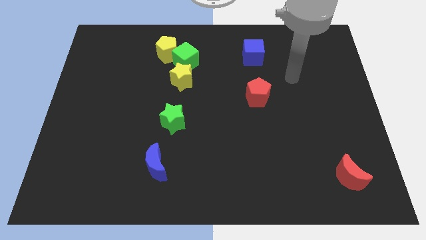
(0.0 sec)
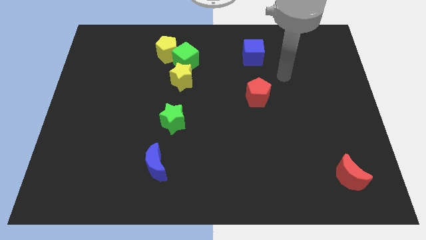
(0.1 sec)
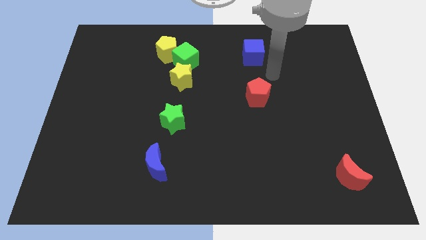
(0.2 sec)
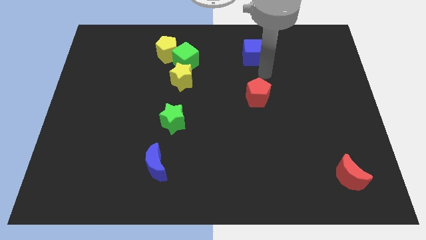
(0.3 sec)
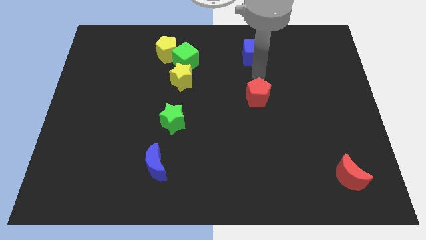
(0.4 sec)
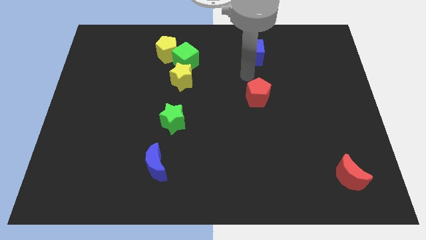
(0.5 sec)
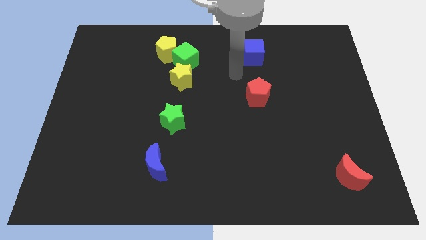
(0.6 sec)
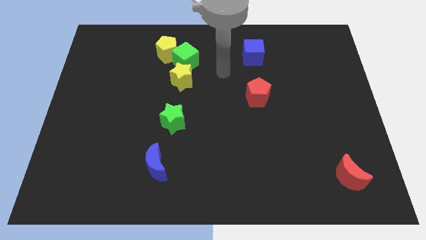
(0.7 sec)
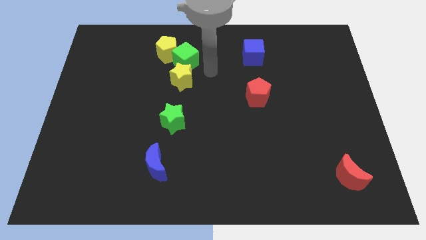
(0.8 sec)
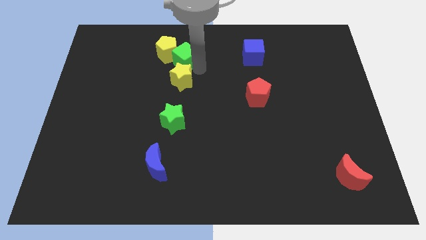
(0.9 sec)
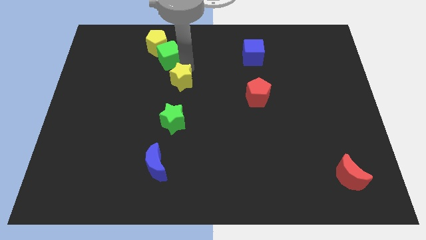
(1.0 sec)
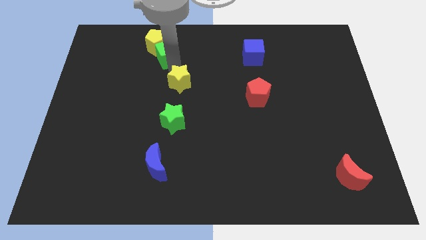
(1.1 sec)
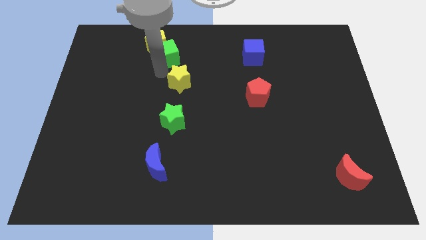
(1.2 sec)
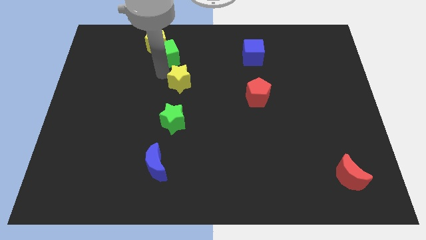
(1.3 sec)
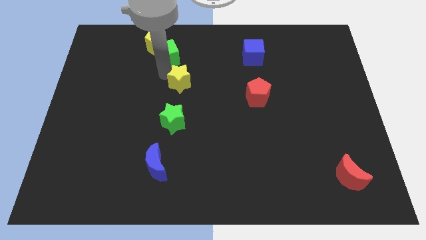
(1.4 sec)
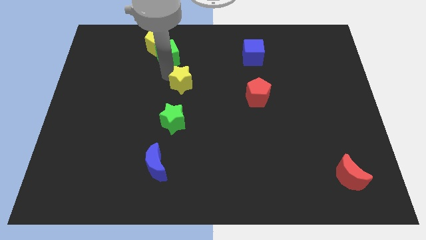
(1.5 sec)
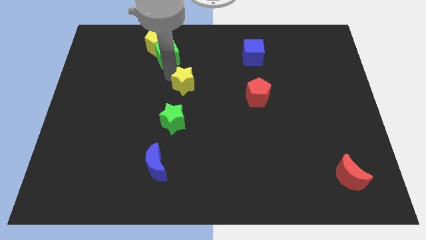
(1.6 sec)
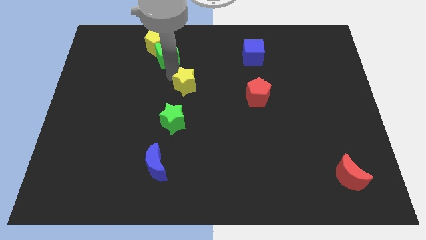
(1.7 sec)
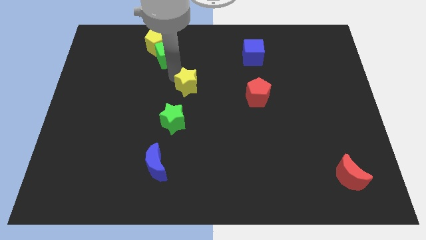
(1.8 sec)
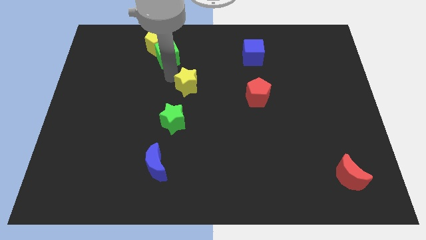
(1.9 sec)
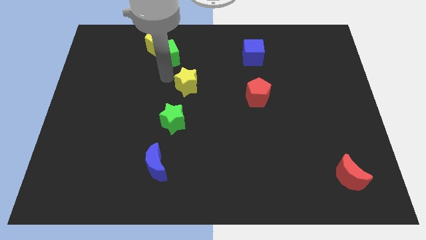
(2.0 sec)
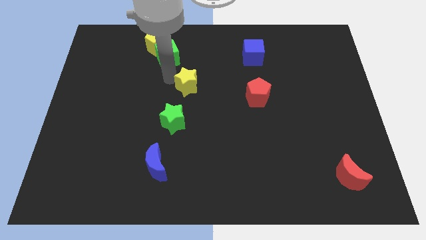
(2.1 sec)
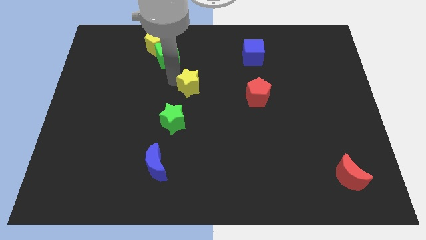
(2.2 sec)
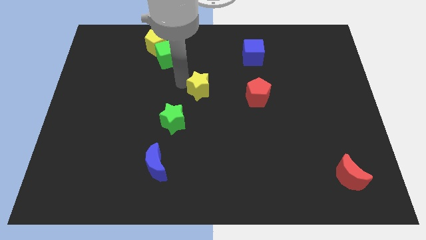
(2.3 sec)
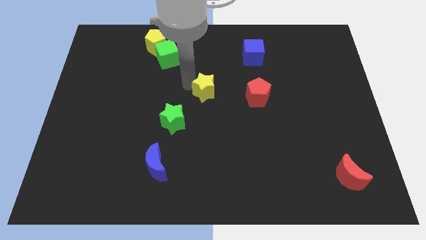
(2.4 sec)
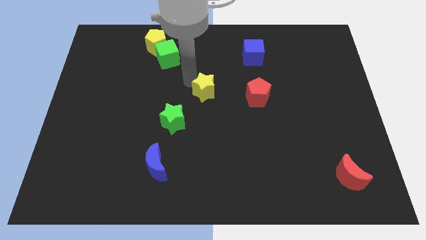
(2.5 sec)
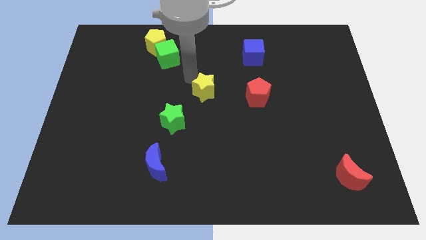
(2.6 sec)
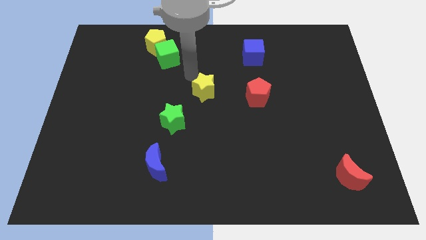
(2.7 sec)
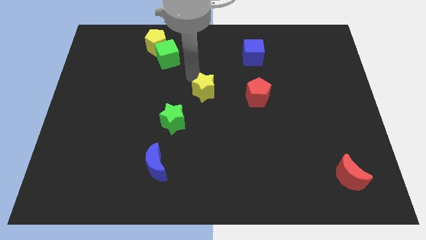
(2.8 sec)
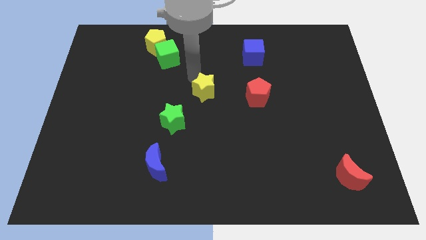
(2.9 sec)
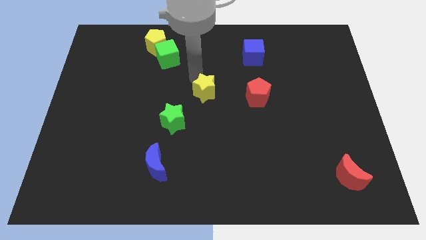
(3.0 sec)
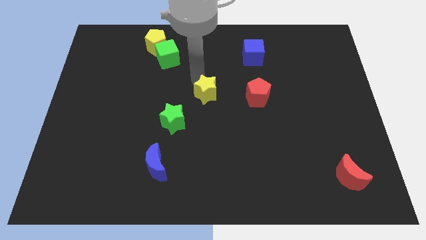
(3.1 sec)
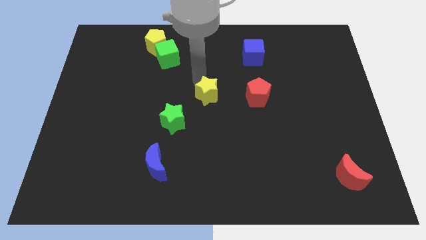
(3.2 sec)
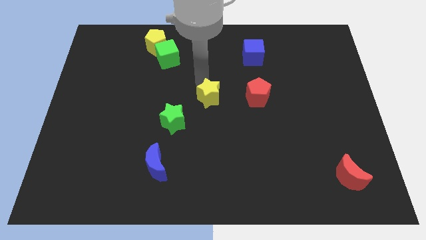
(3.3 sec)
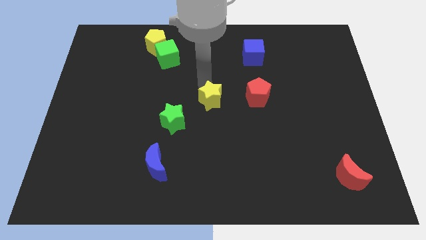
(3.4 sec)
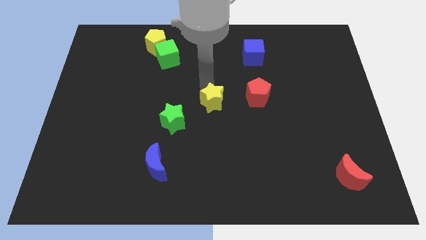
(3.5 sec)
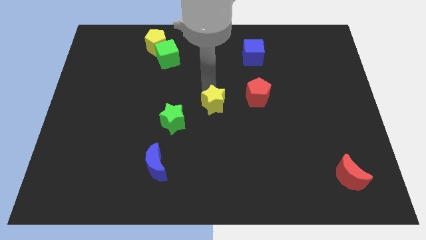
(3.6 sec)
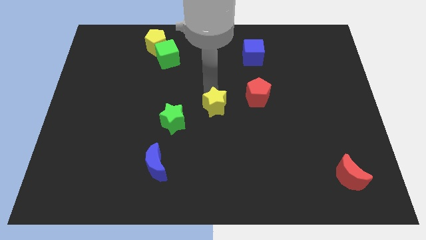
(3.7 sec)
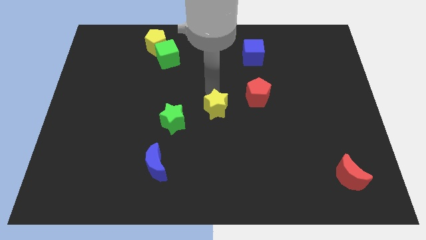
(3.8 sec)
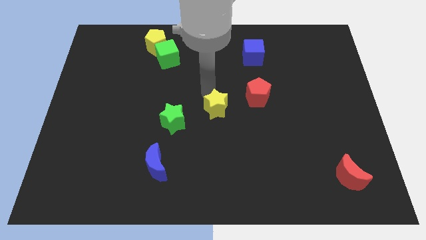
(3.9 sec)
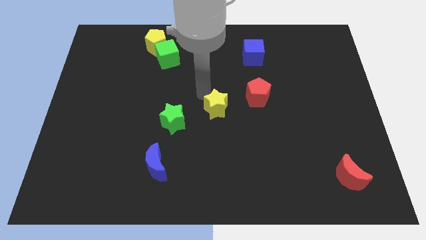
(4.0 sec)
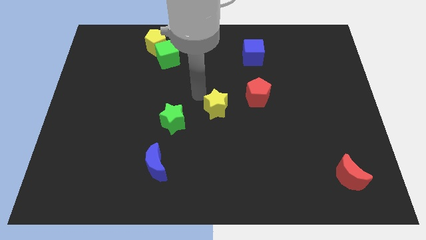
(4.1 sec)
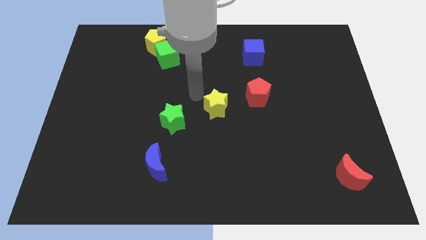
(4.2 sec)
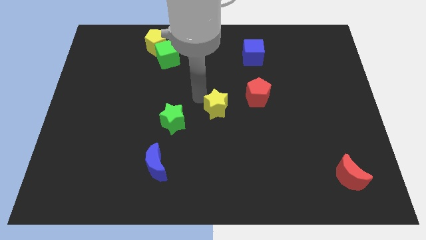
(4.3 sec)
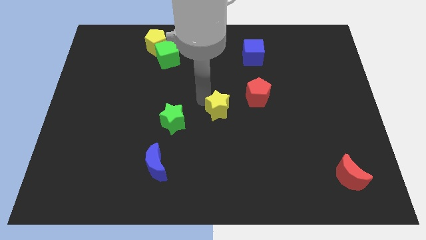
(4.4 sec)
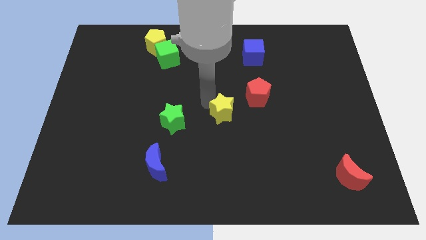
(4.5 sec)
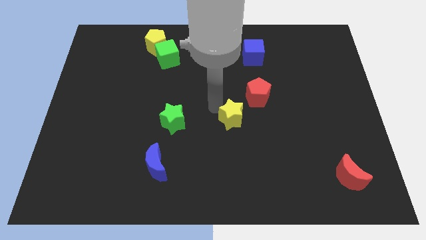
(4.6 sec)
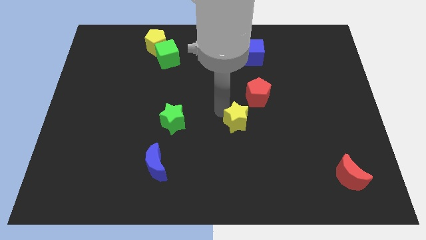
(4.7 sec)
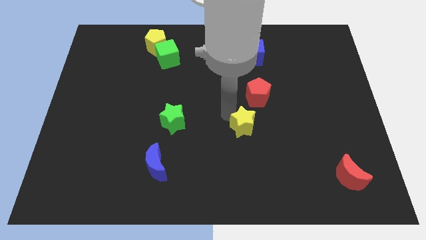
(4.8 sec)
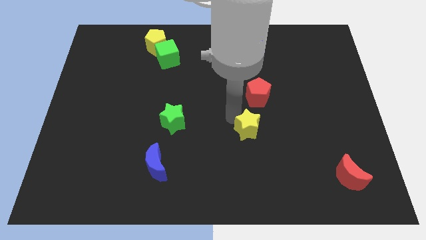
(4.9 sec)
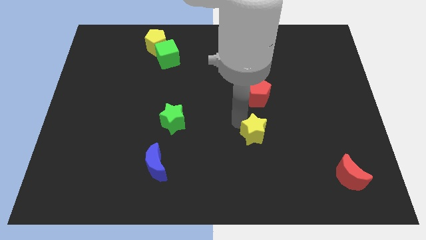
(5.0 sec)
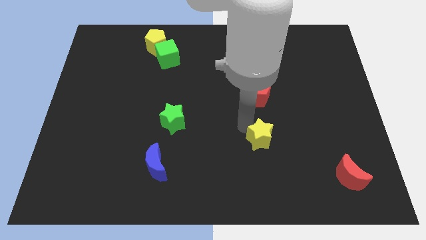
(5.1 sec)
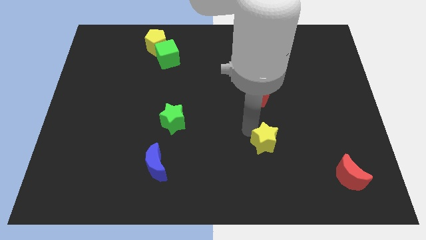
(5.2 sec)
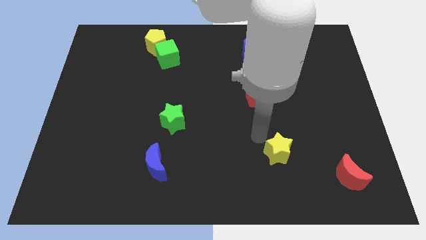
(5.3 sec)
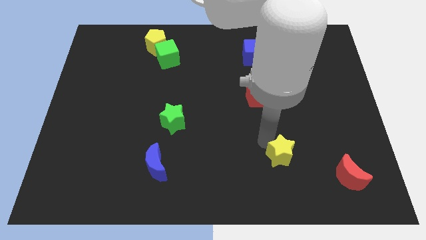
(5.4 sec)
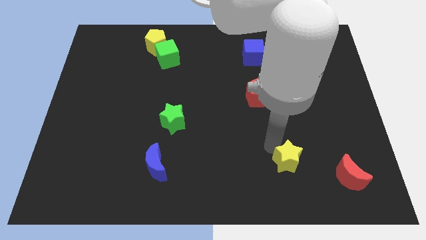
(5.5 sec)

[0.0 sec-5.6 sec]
move the yellow star left of the red moon

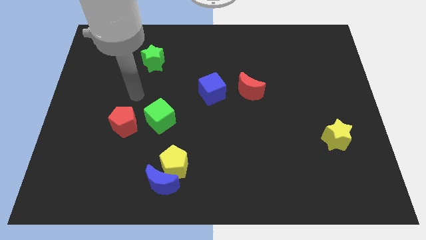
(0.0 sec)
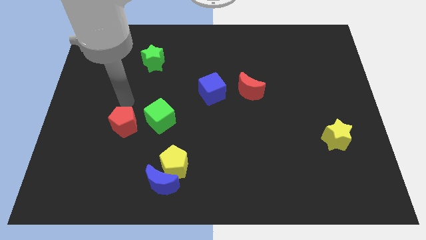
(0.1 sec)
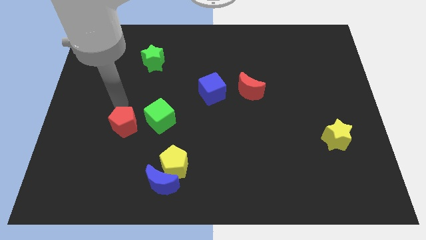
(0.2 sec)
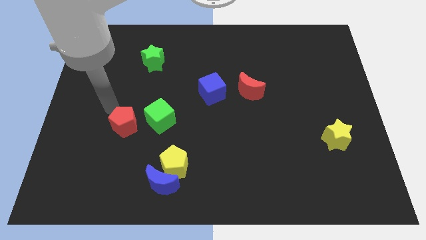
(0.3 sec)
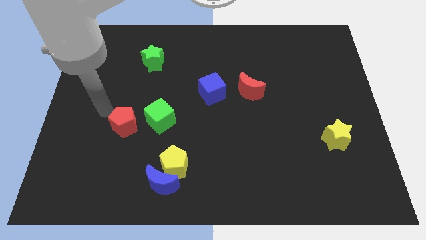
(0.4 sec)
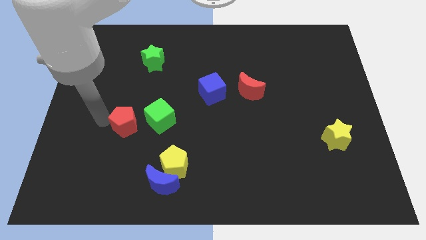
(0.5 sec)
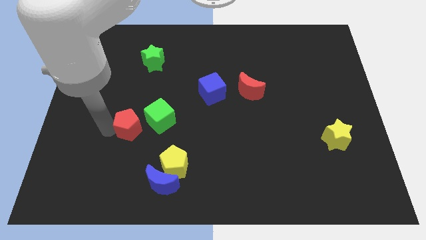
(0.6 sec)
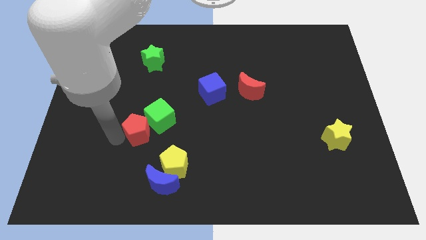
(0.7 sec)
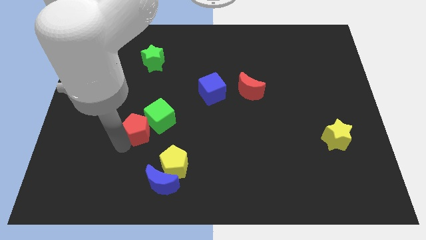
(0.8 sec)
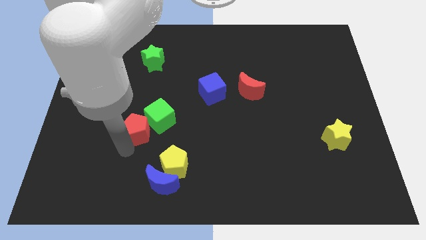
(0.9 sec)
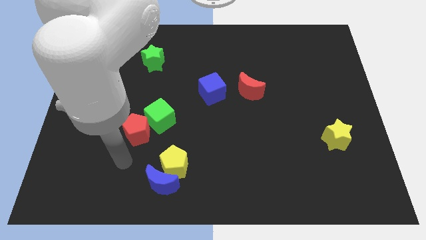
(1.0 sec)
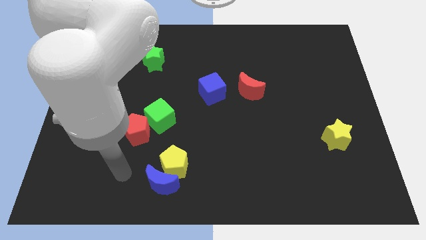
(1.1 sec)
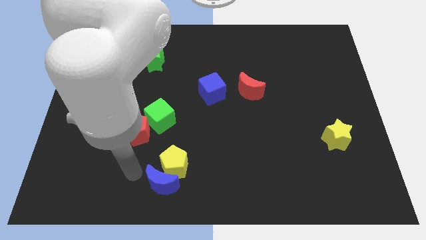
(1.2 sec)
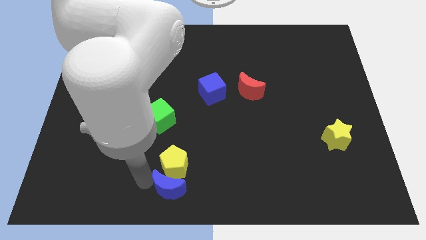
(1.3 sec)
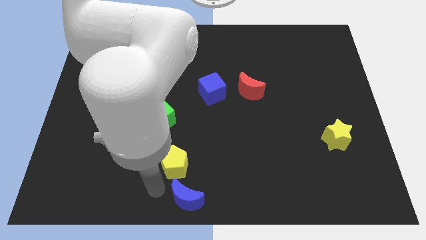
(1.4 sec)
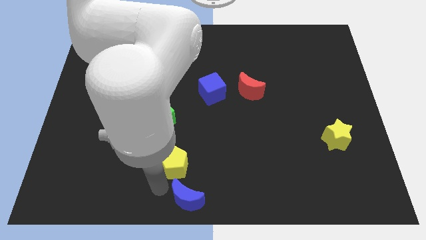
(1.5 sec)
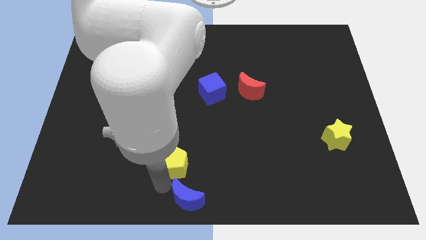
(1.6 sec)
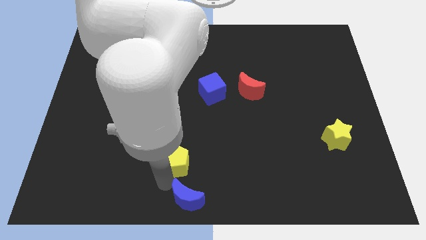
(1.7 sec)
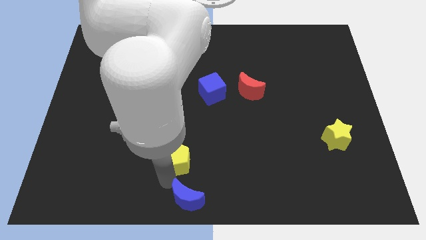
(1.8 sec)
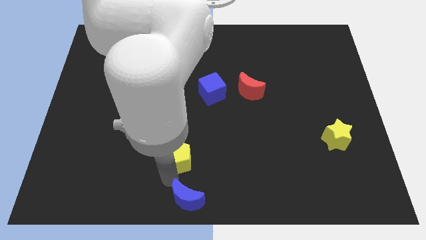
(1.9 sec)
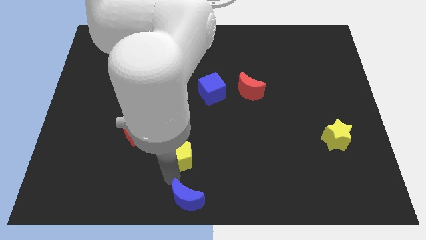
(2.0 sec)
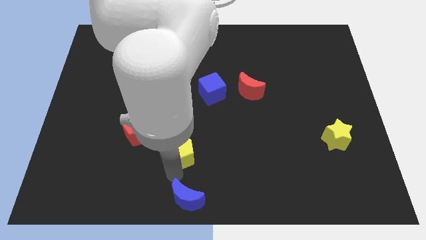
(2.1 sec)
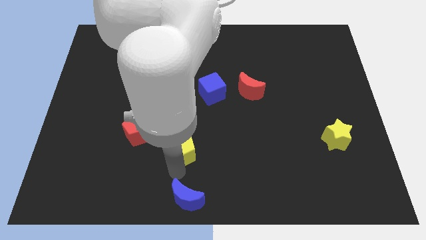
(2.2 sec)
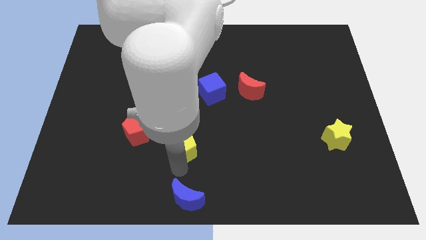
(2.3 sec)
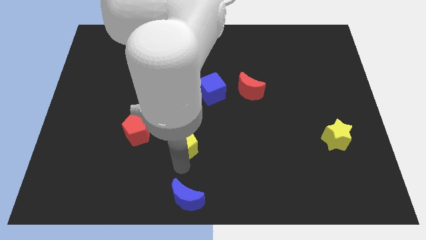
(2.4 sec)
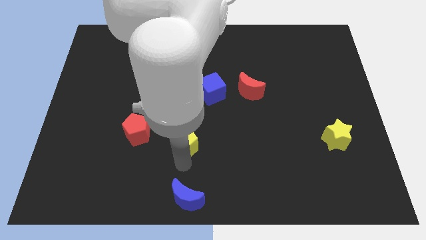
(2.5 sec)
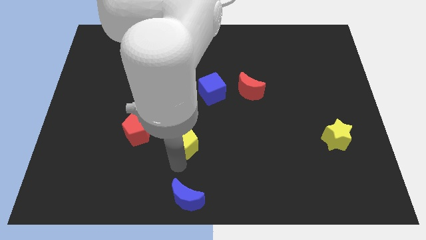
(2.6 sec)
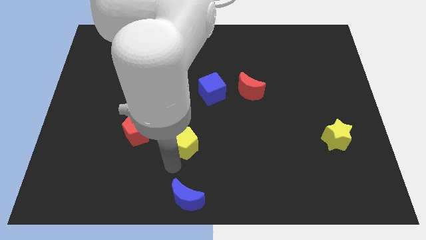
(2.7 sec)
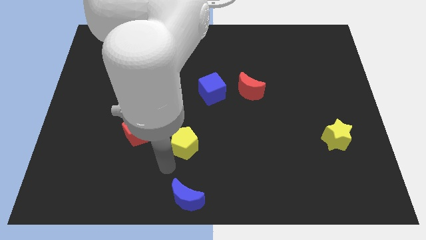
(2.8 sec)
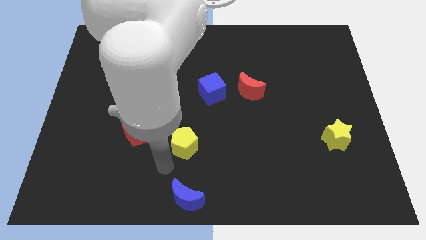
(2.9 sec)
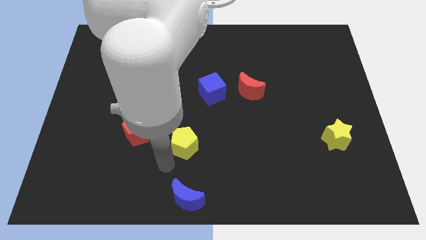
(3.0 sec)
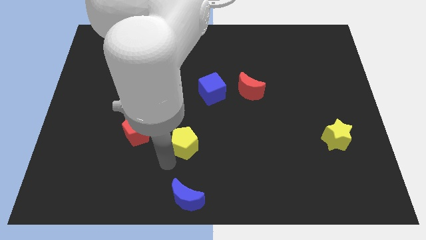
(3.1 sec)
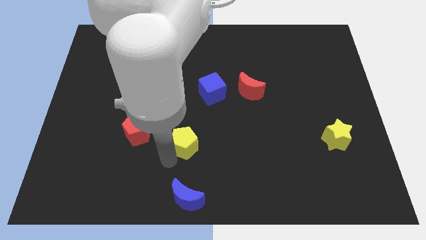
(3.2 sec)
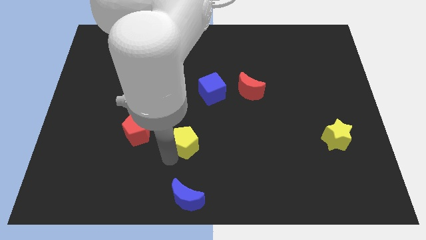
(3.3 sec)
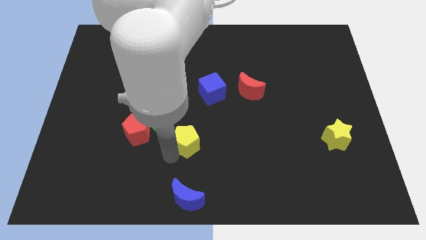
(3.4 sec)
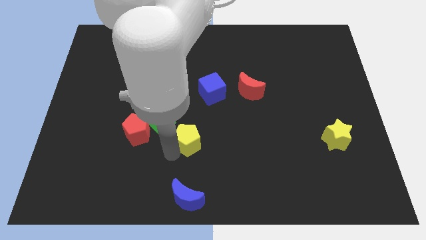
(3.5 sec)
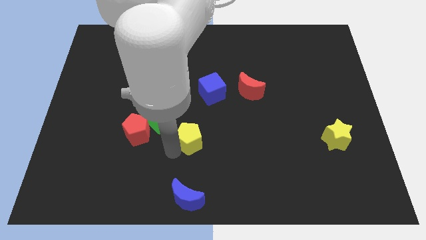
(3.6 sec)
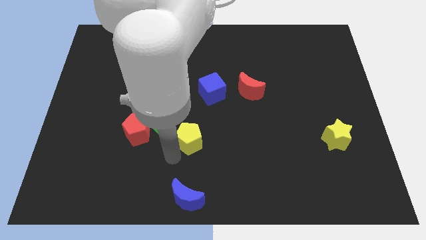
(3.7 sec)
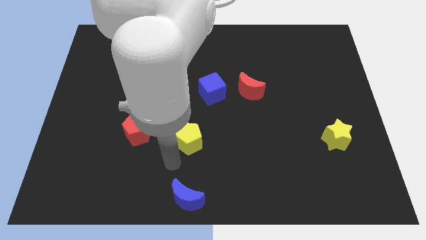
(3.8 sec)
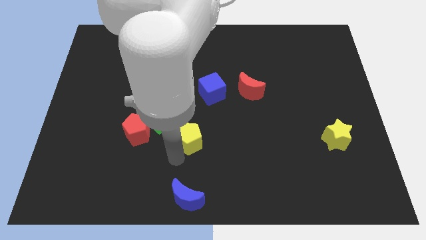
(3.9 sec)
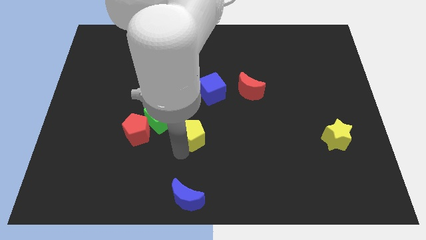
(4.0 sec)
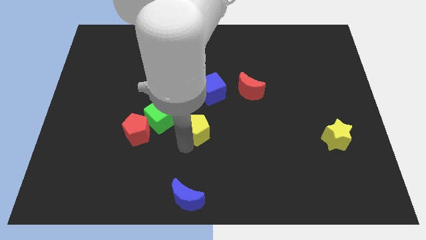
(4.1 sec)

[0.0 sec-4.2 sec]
put the yellow pentagon right of the green cube
